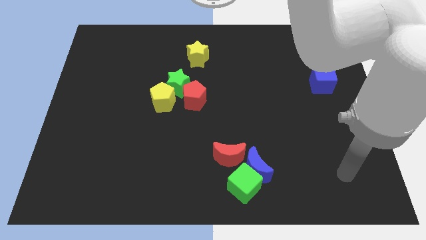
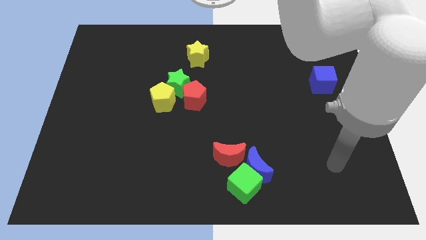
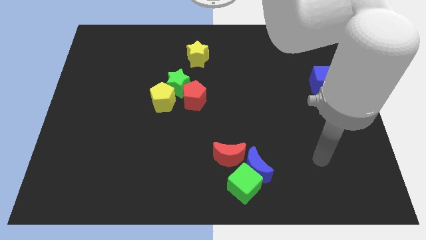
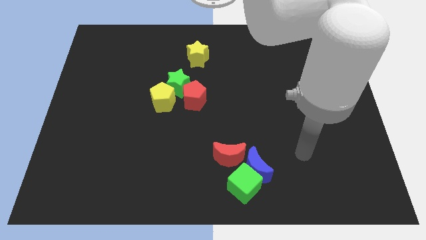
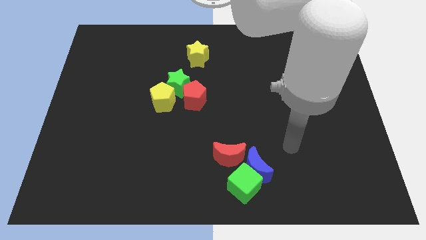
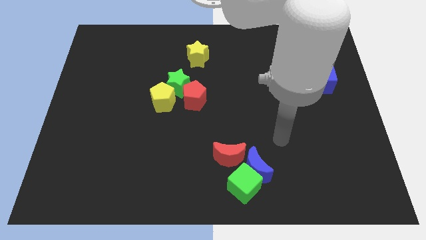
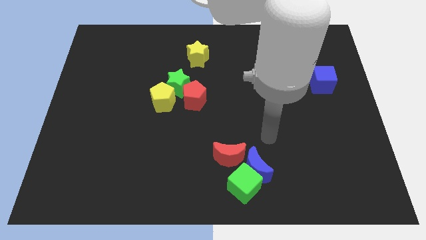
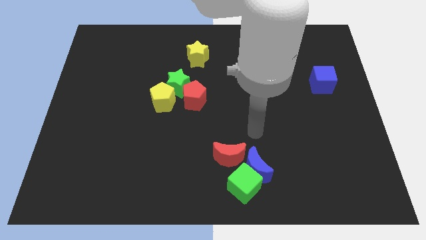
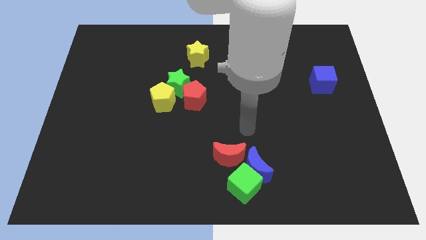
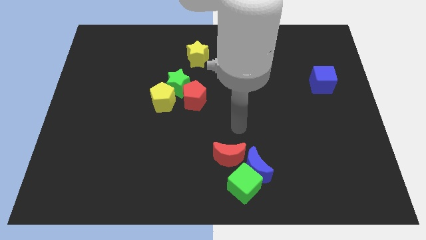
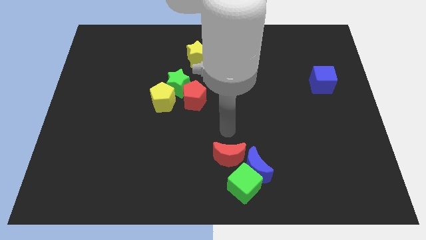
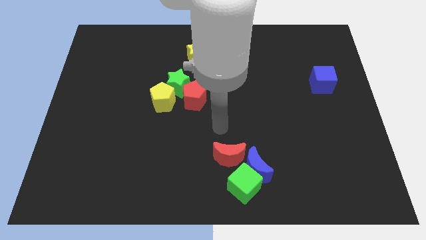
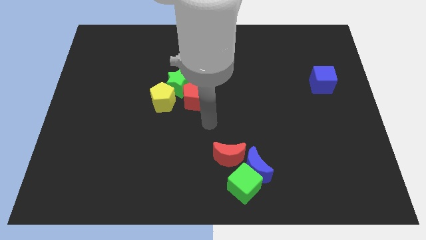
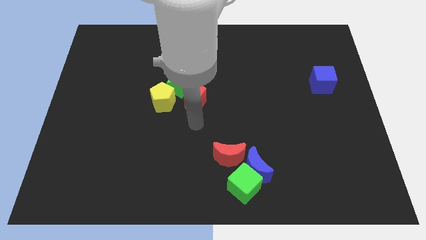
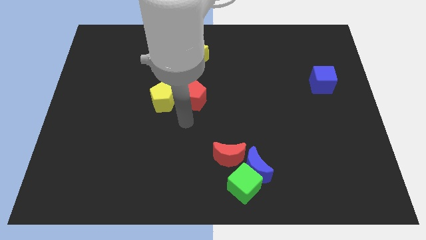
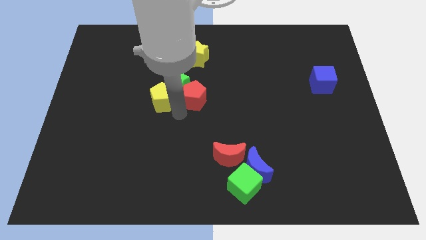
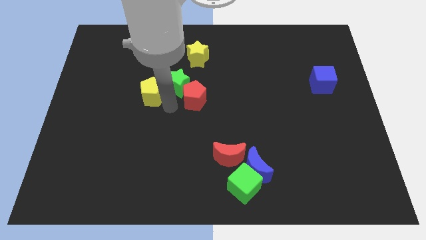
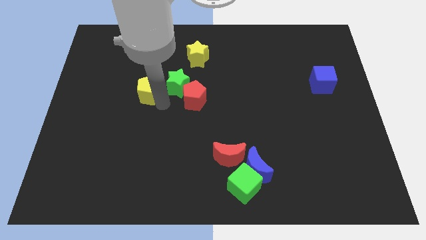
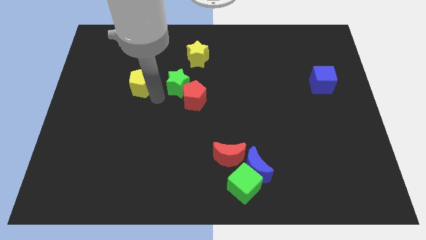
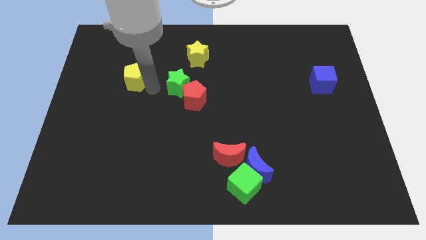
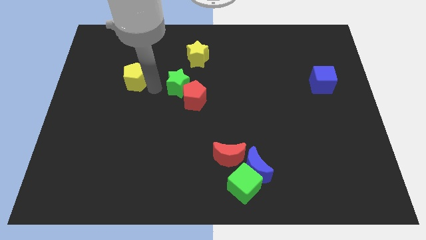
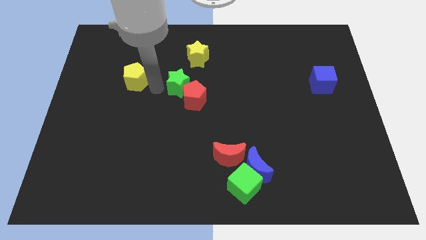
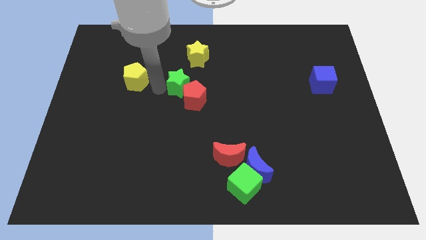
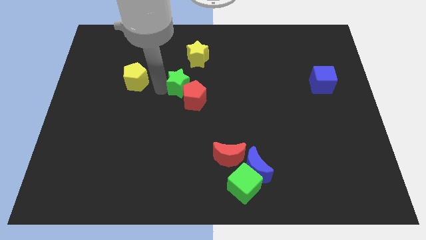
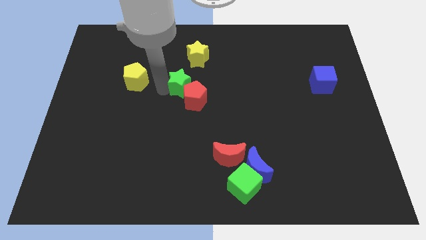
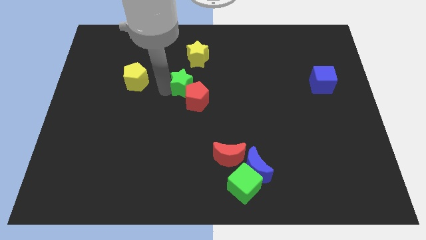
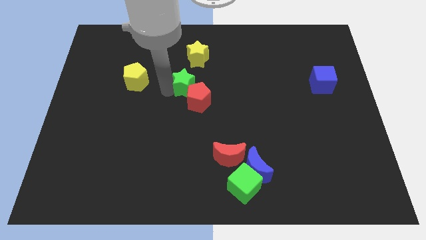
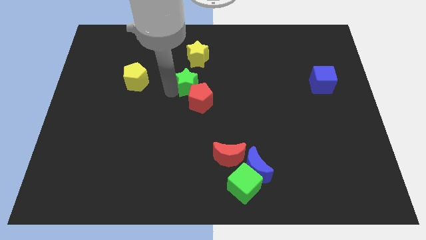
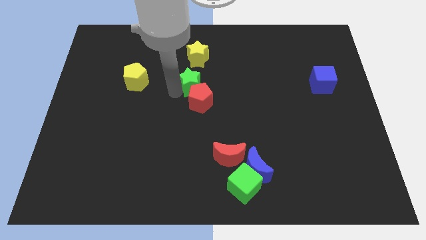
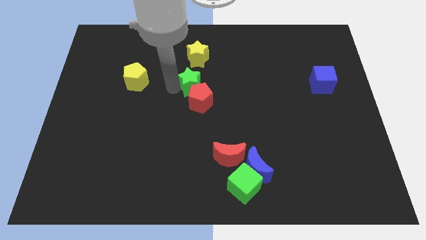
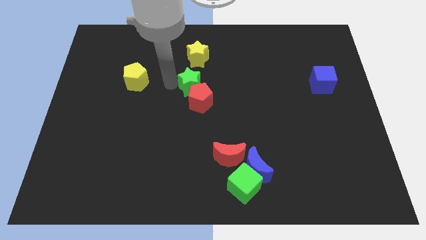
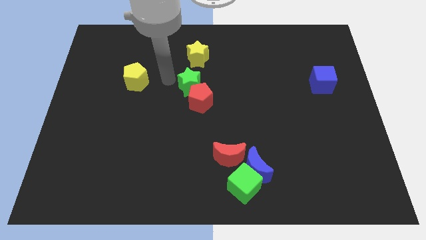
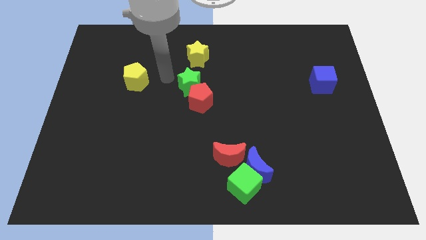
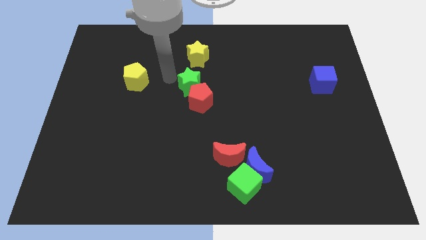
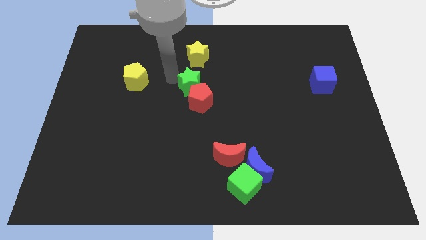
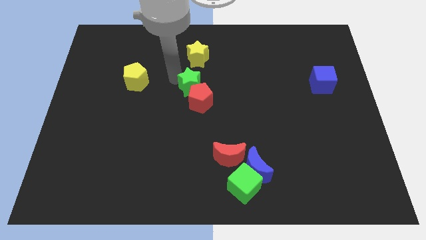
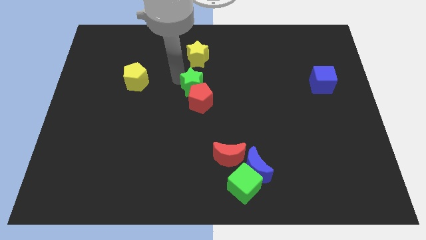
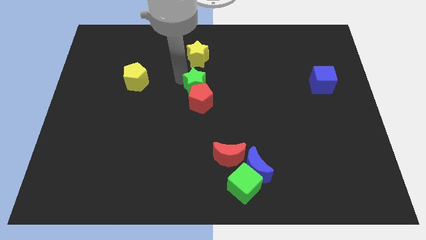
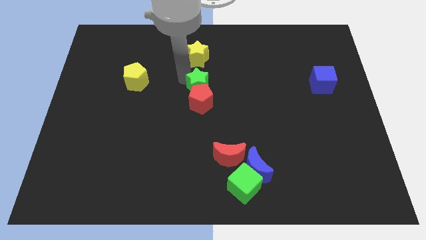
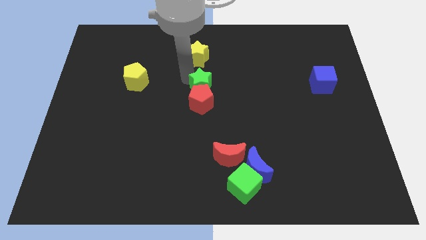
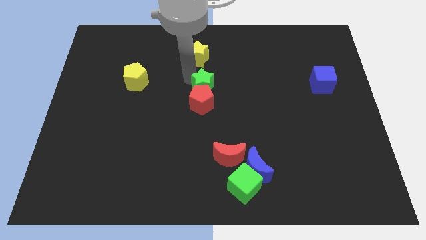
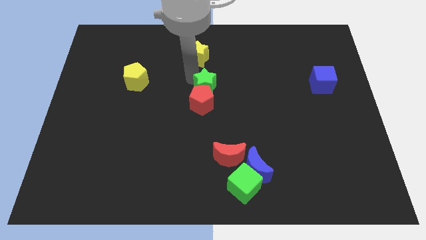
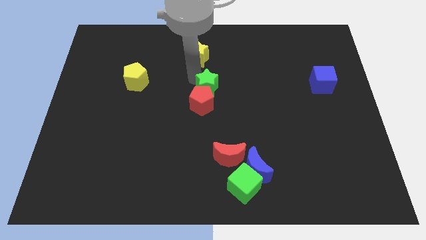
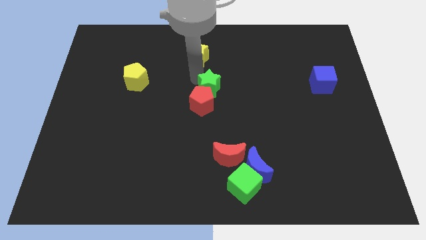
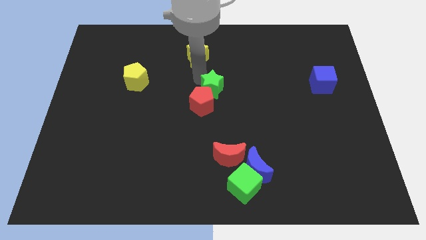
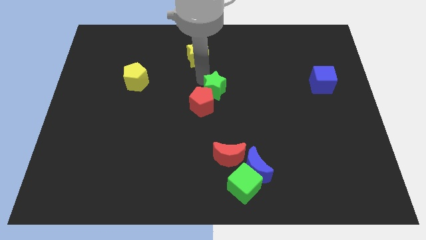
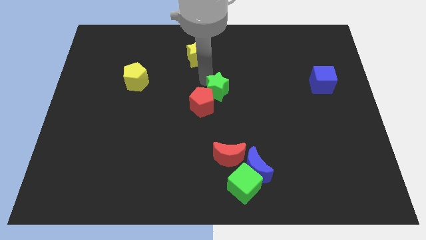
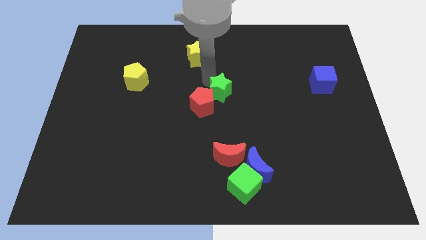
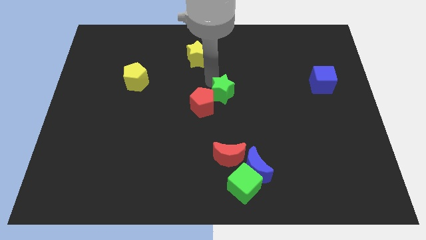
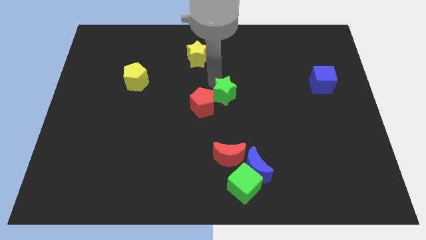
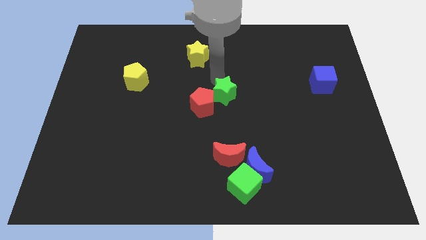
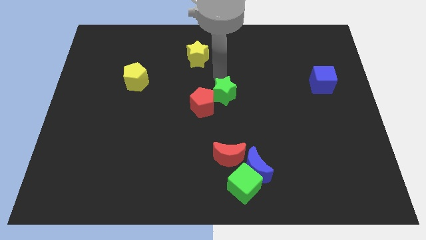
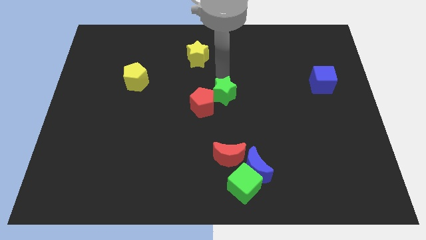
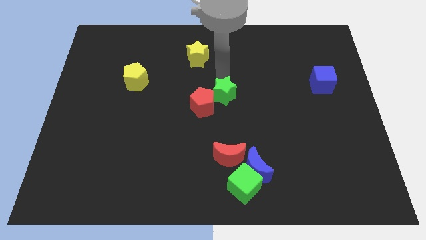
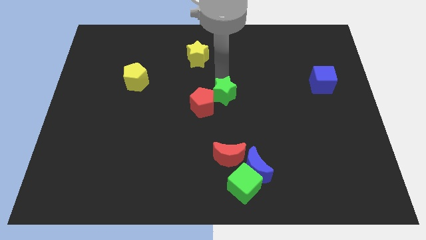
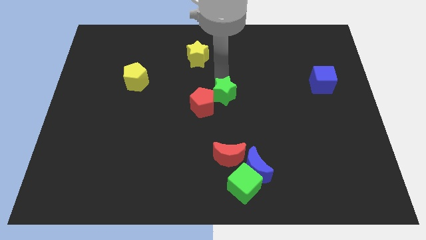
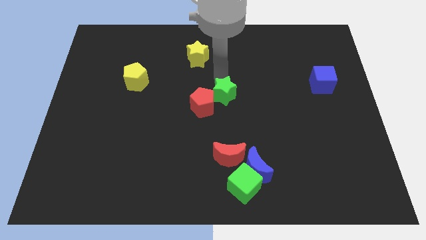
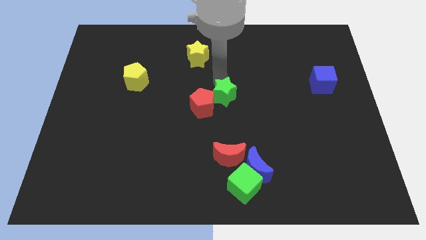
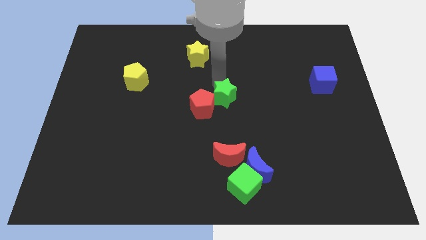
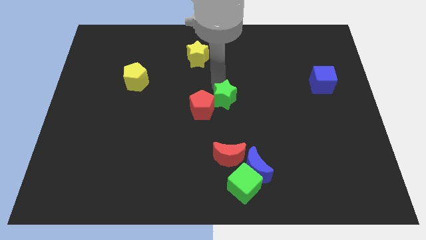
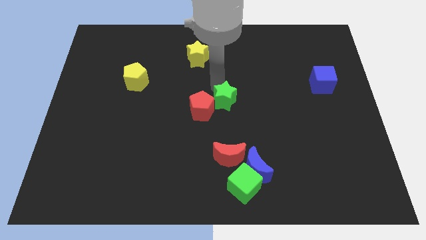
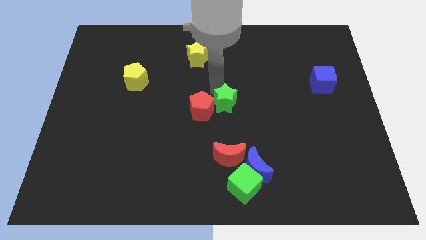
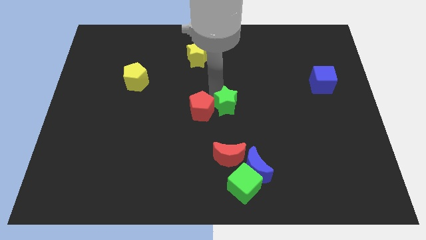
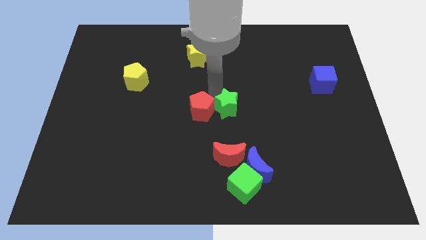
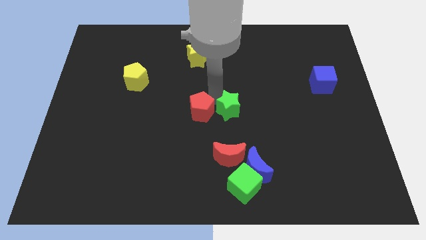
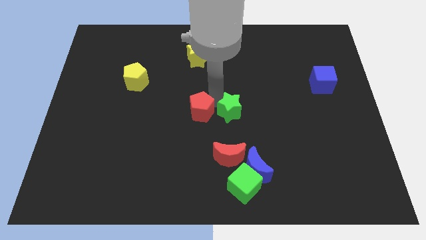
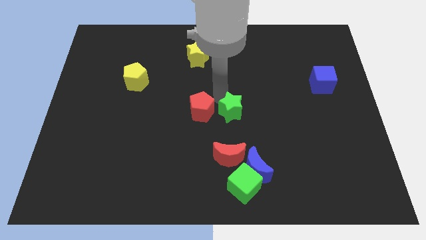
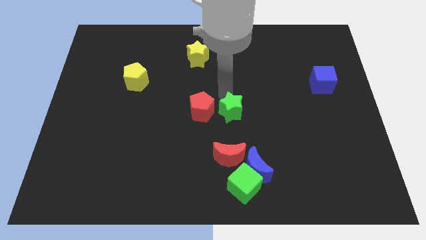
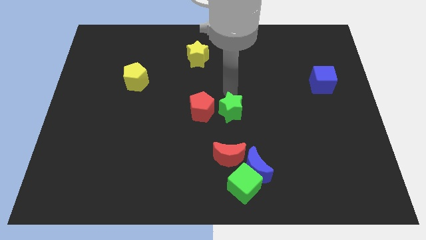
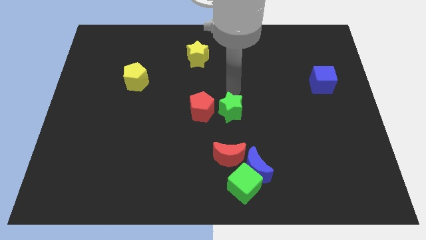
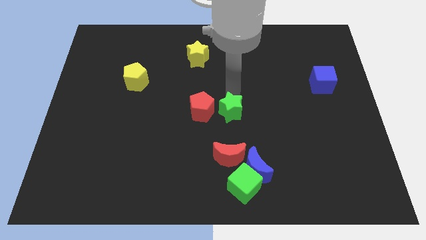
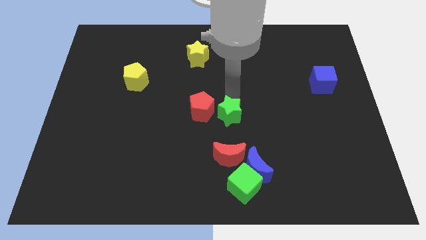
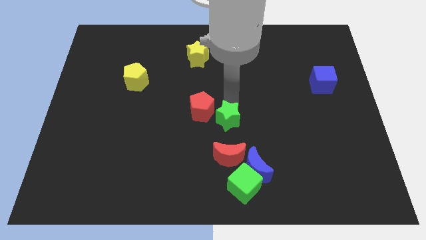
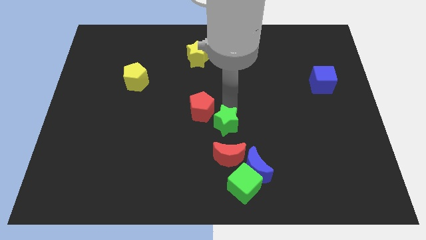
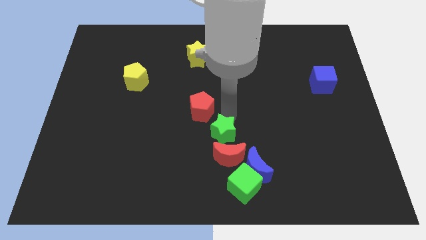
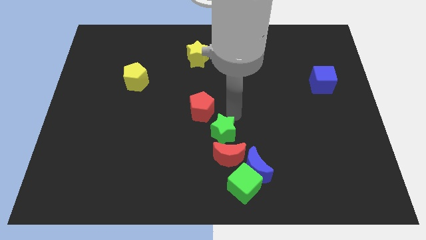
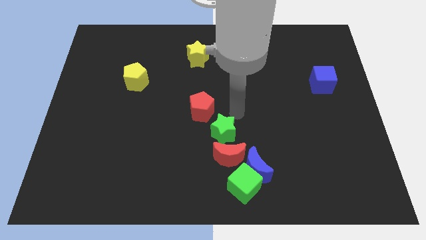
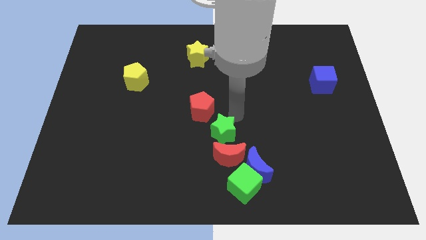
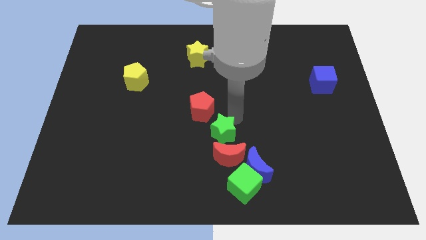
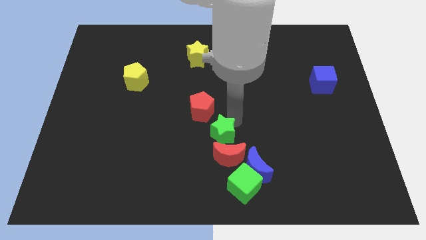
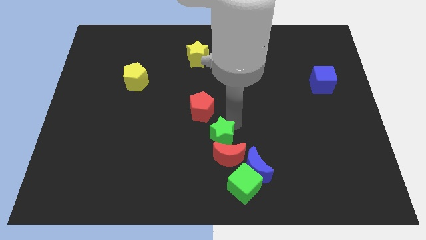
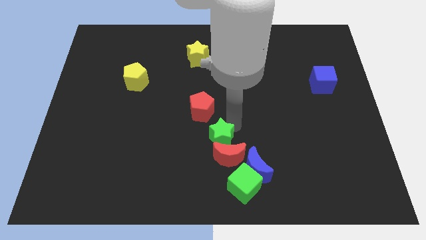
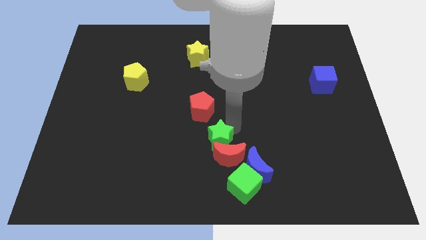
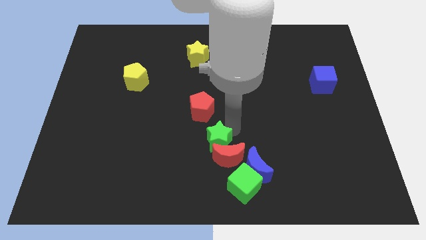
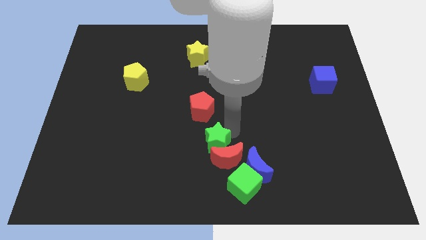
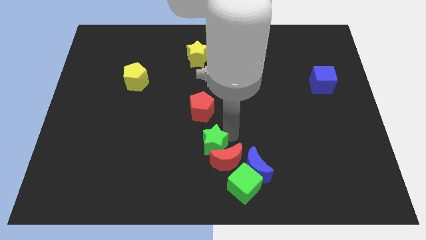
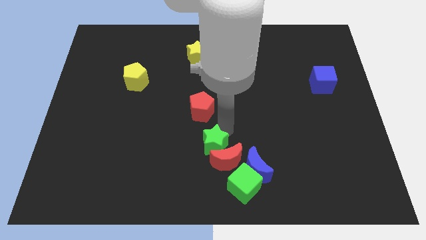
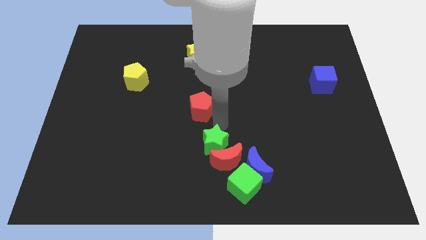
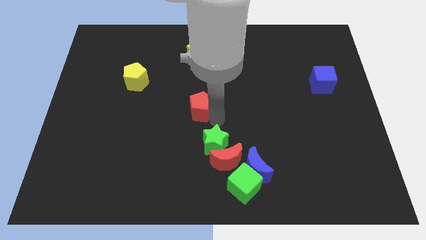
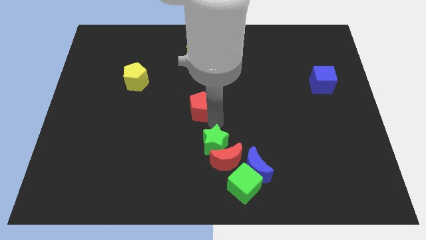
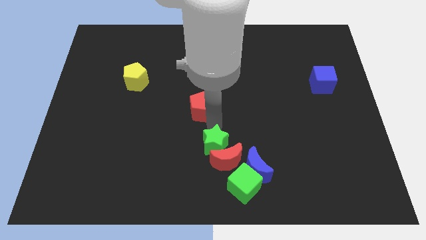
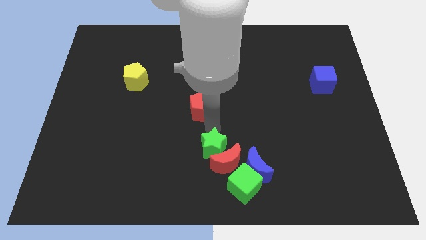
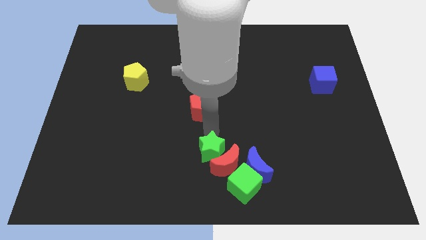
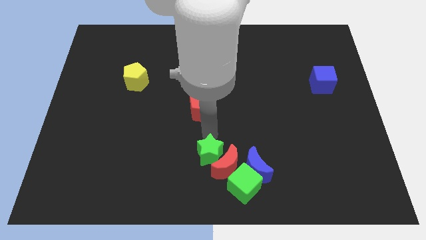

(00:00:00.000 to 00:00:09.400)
move the green star to the bottom
